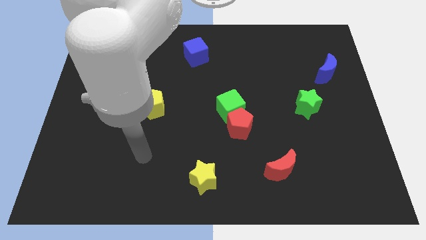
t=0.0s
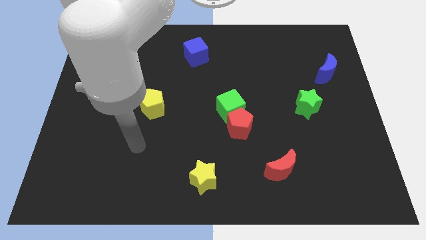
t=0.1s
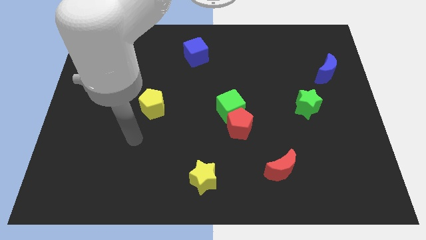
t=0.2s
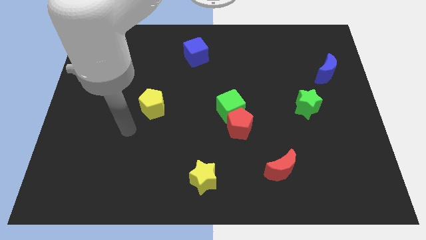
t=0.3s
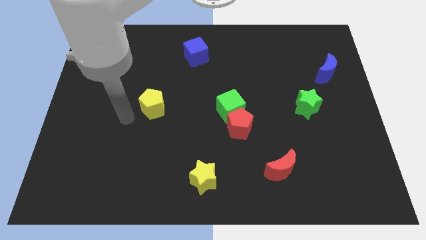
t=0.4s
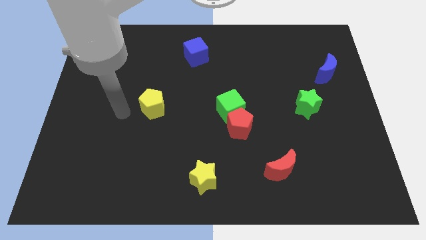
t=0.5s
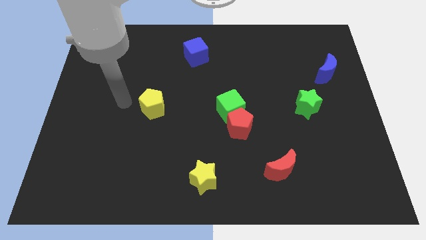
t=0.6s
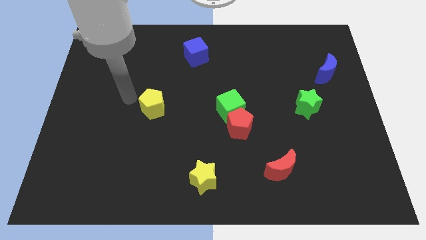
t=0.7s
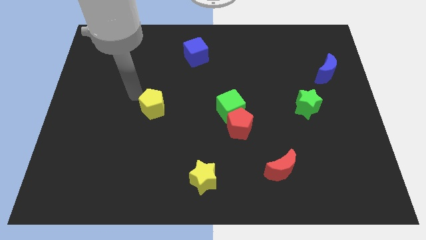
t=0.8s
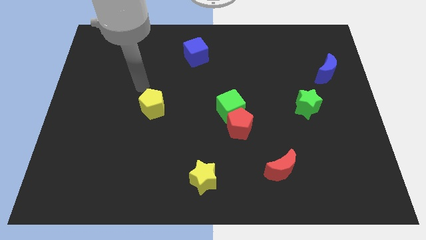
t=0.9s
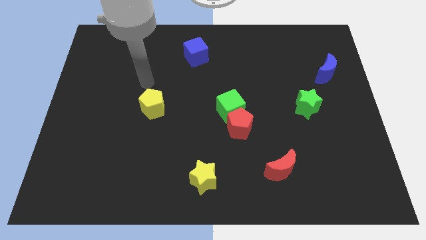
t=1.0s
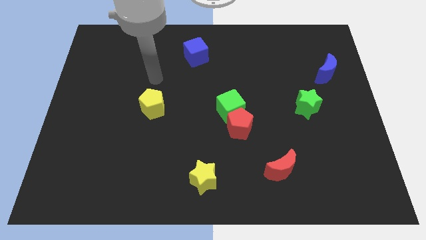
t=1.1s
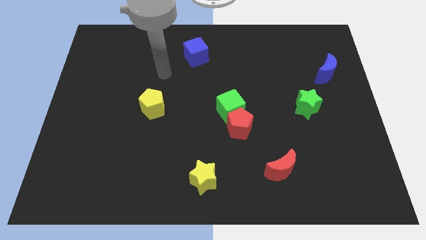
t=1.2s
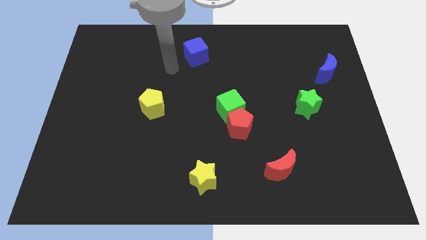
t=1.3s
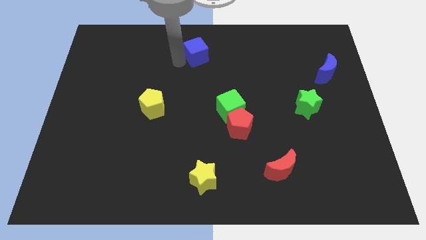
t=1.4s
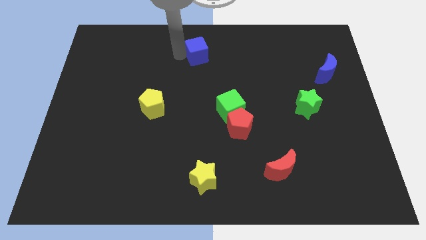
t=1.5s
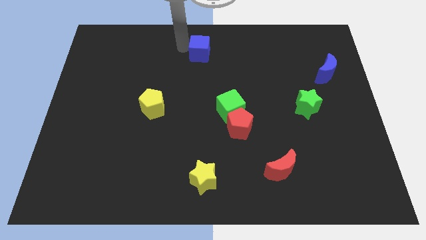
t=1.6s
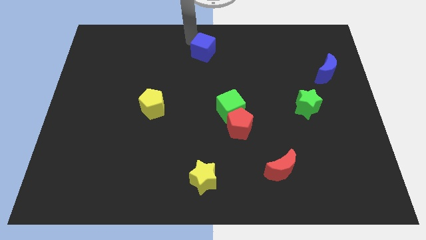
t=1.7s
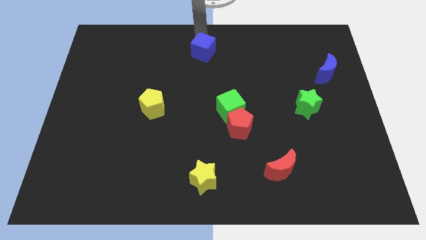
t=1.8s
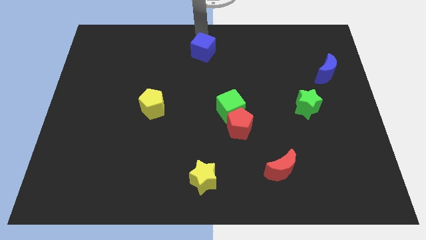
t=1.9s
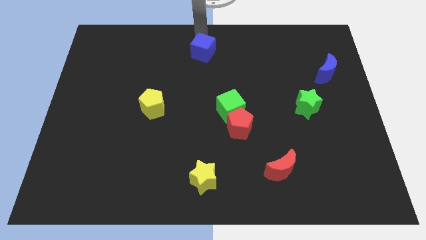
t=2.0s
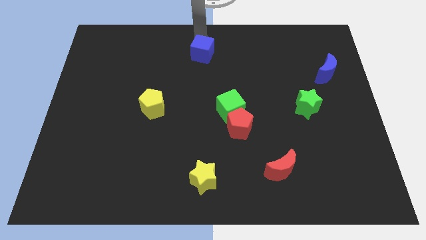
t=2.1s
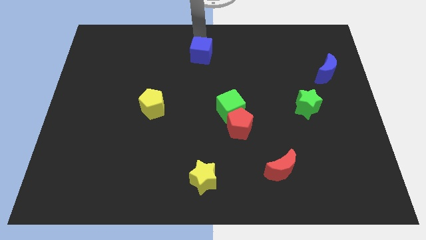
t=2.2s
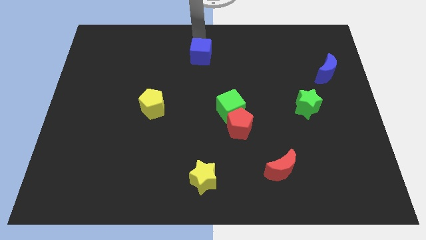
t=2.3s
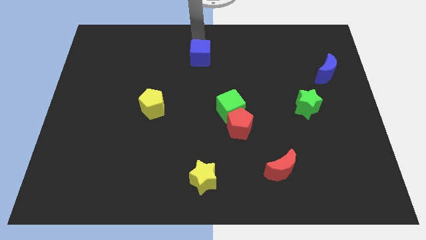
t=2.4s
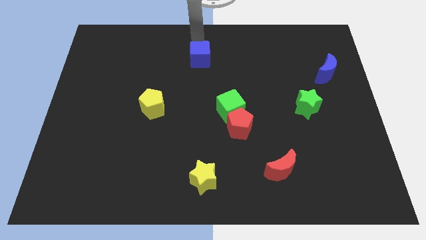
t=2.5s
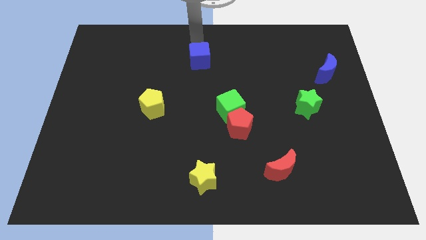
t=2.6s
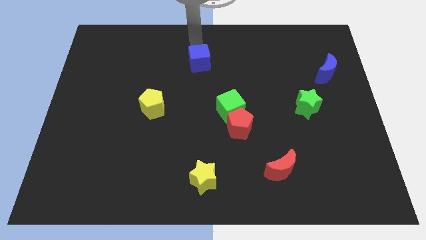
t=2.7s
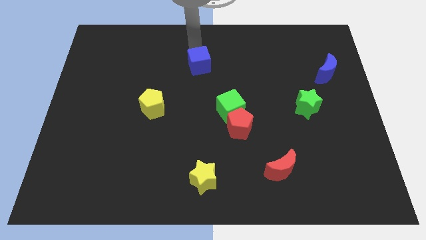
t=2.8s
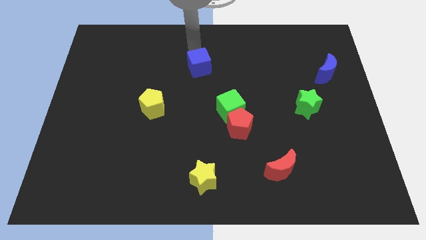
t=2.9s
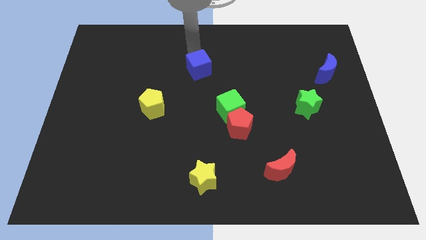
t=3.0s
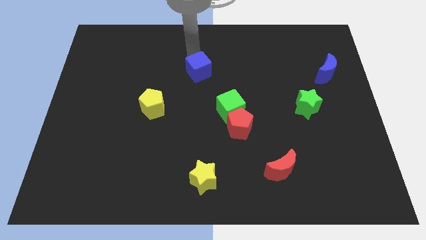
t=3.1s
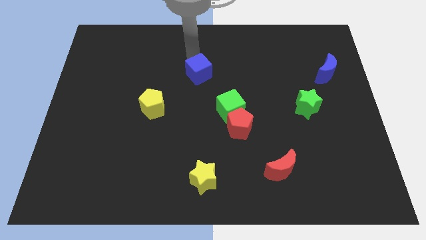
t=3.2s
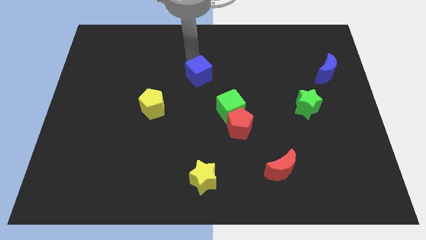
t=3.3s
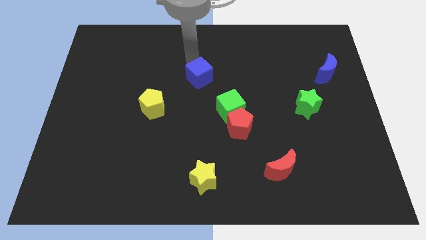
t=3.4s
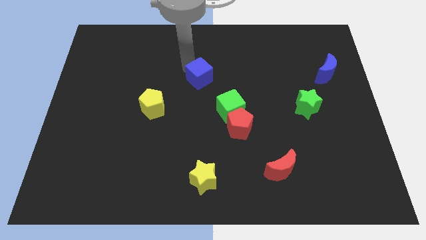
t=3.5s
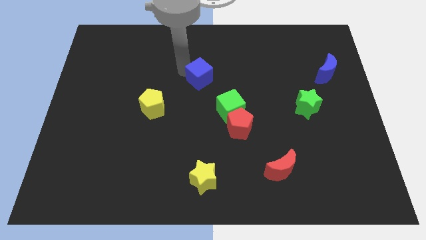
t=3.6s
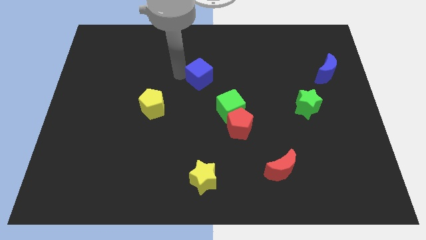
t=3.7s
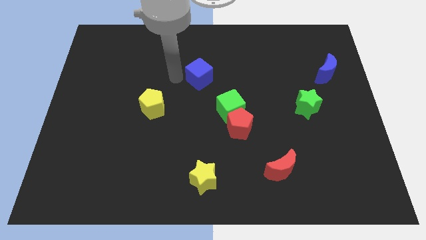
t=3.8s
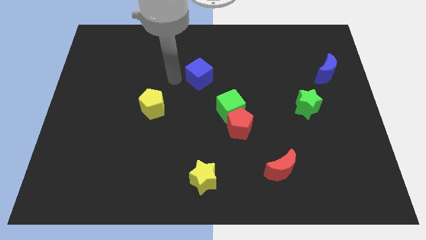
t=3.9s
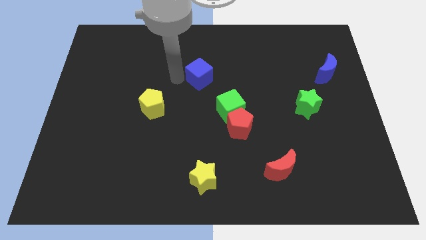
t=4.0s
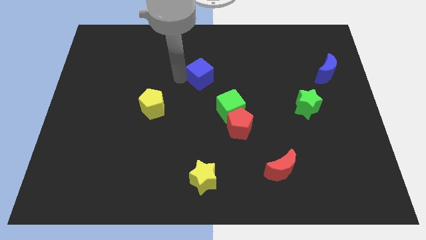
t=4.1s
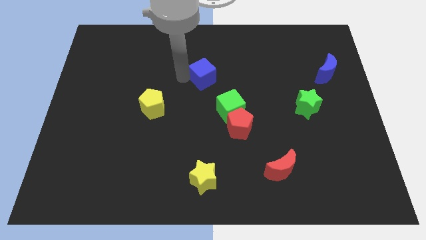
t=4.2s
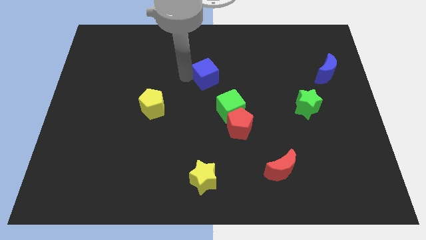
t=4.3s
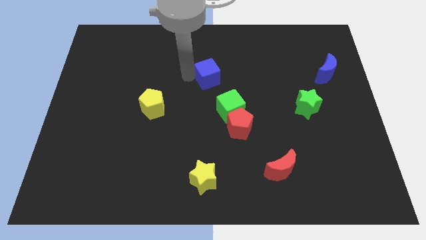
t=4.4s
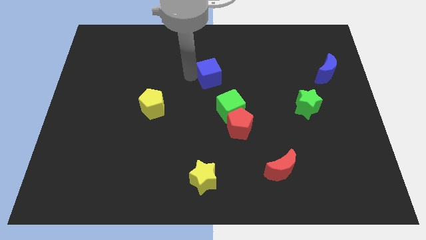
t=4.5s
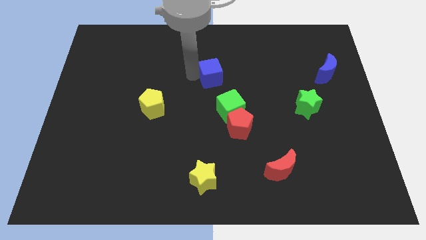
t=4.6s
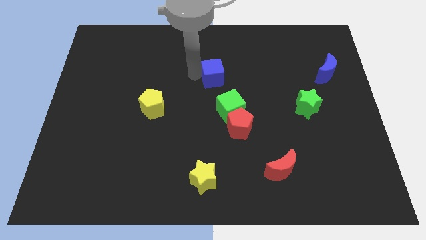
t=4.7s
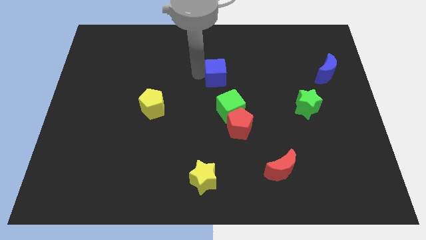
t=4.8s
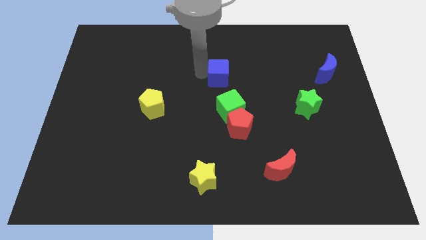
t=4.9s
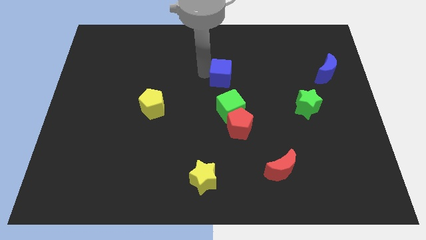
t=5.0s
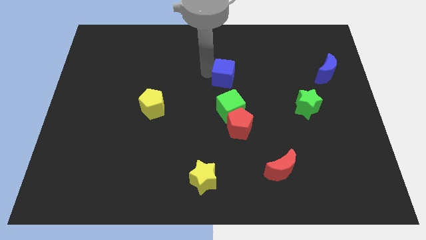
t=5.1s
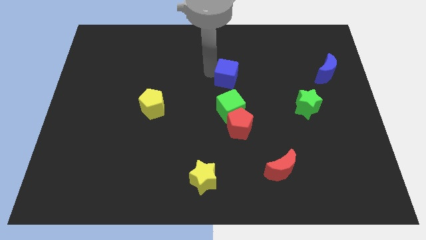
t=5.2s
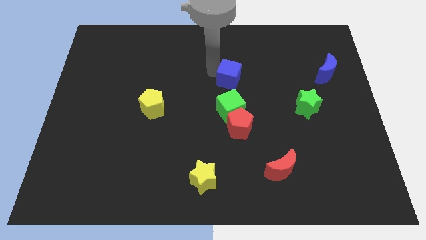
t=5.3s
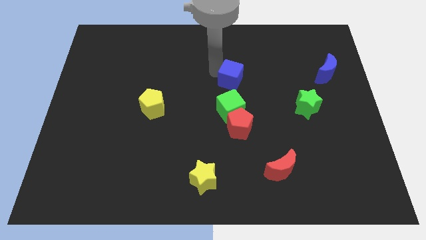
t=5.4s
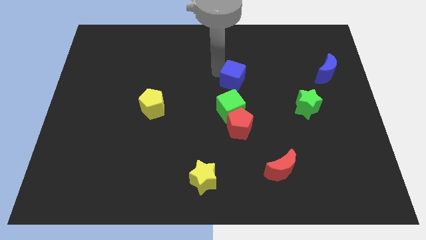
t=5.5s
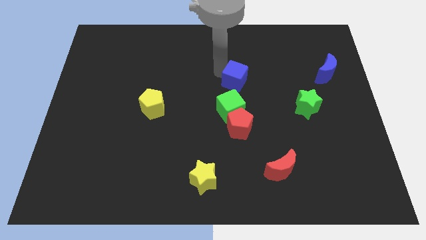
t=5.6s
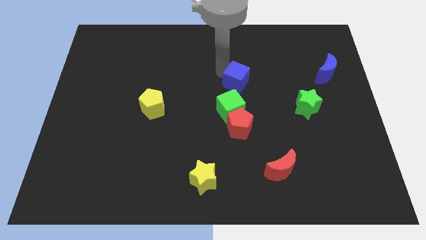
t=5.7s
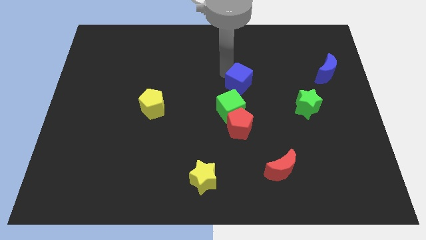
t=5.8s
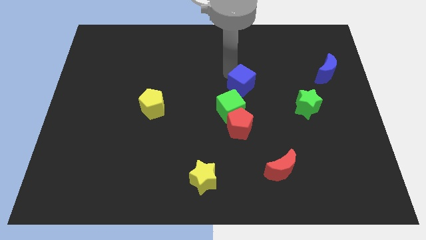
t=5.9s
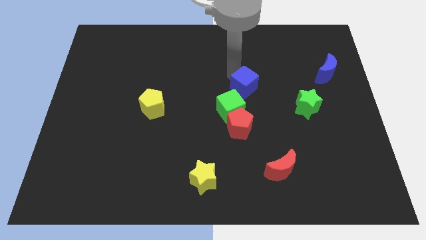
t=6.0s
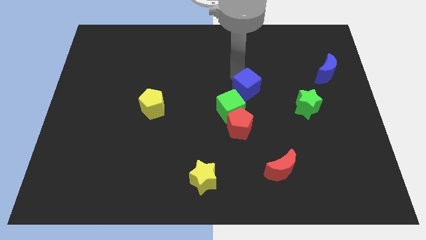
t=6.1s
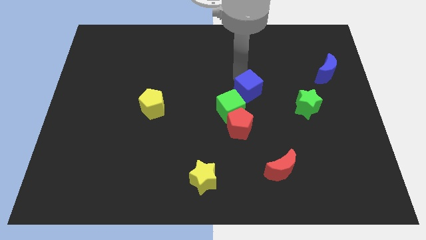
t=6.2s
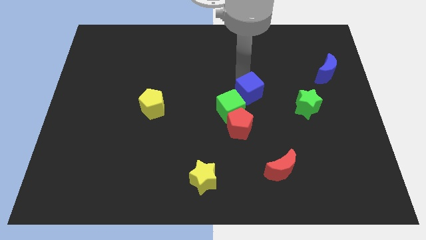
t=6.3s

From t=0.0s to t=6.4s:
put the blue cube to the left side of the green star

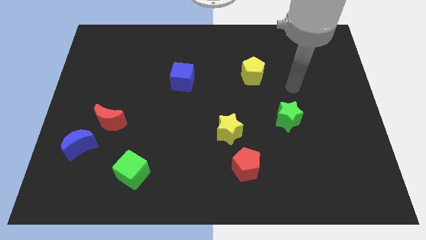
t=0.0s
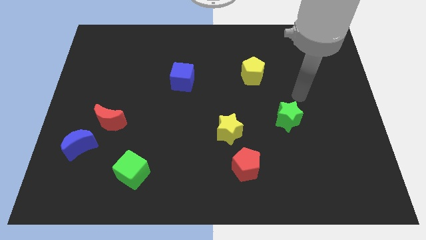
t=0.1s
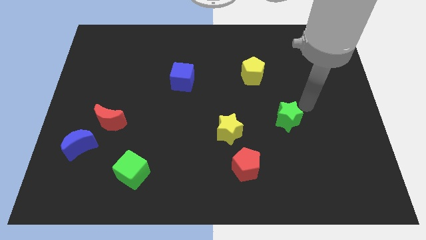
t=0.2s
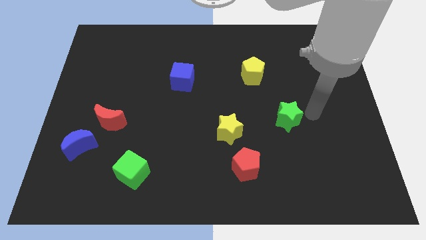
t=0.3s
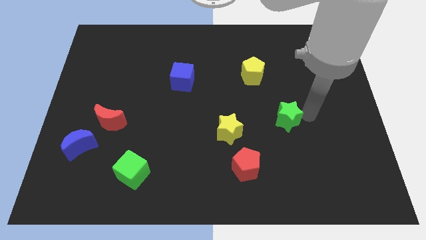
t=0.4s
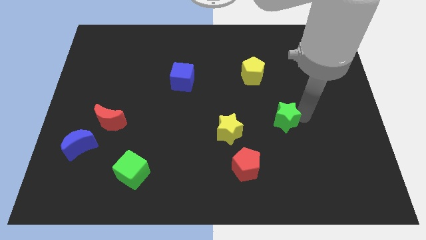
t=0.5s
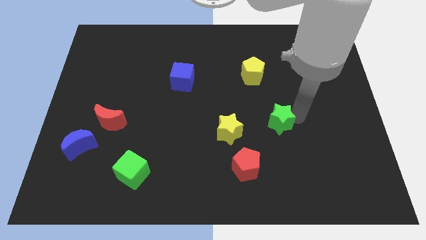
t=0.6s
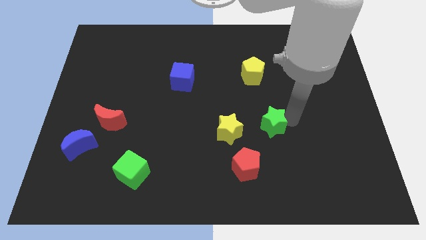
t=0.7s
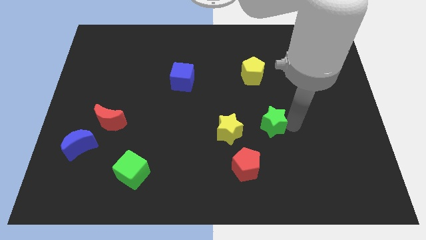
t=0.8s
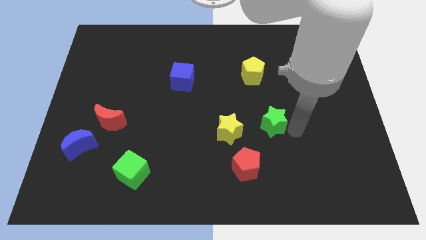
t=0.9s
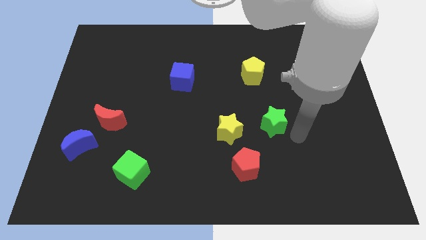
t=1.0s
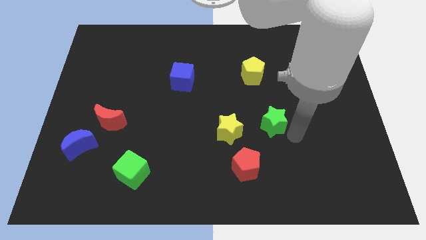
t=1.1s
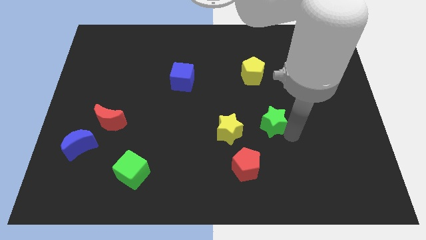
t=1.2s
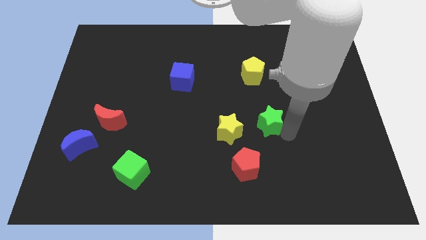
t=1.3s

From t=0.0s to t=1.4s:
slide the green star diagonally up and to the right of the yellow star

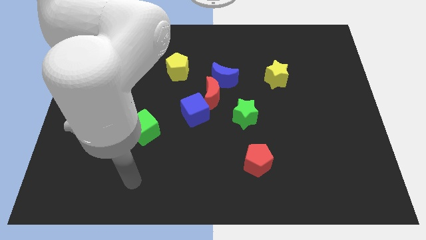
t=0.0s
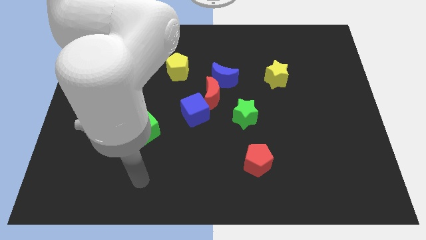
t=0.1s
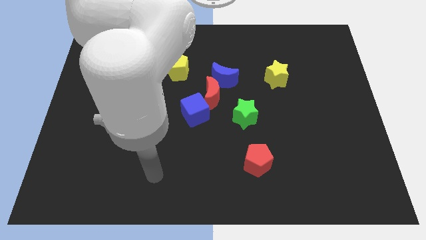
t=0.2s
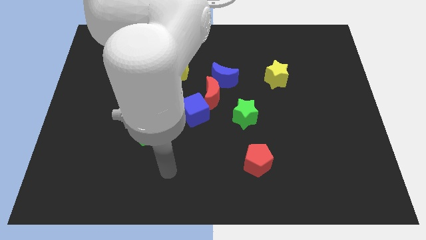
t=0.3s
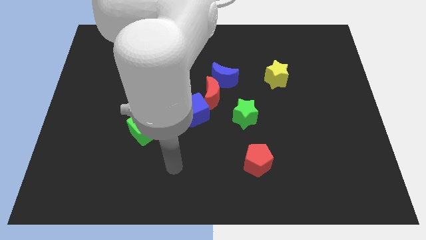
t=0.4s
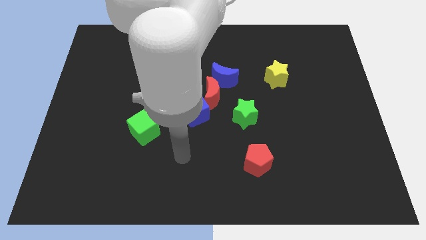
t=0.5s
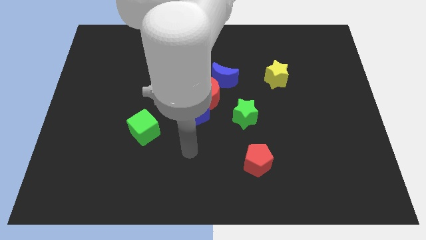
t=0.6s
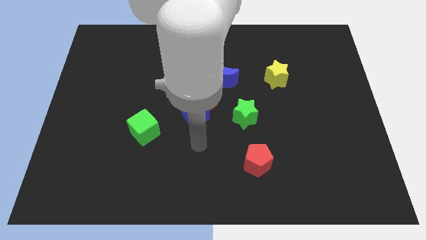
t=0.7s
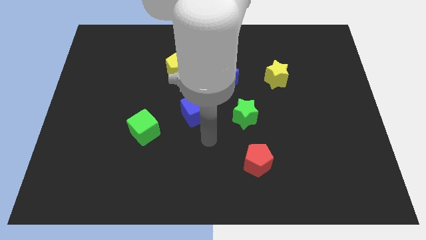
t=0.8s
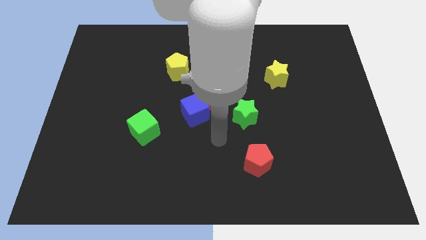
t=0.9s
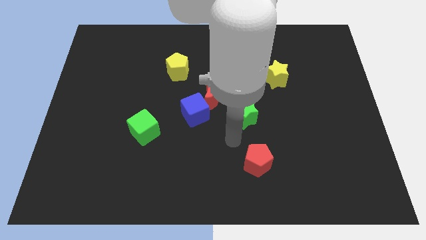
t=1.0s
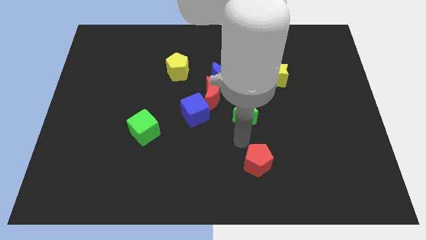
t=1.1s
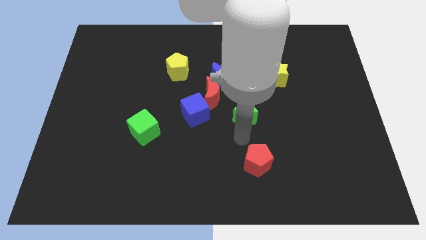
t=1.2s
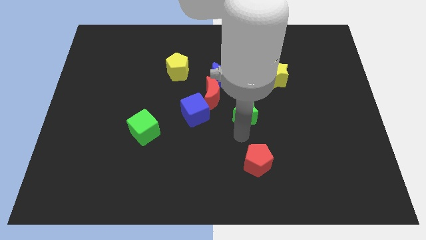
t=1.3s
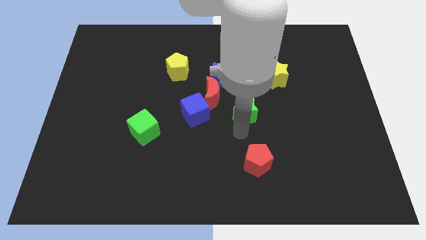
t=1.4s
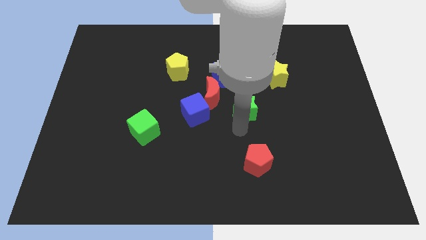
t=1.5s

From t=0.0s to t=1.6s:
move the green star to the bottom right of the blue moon
